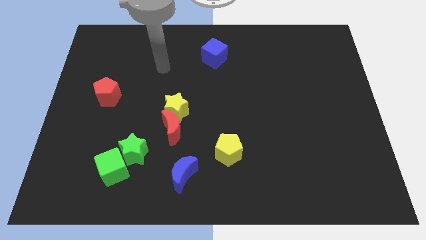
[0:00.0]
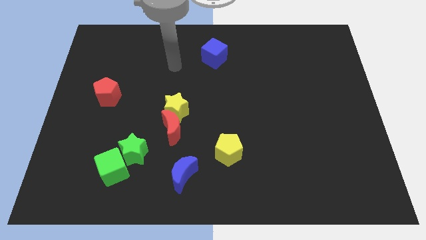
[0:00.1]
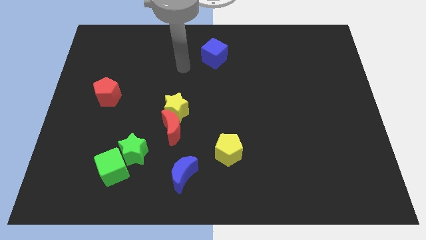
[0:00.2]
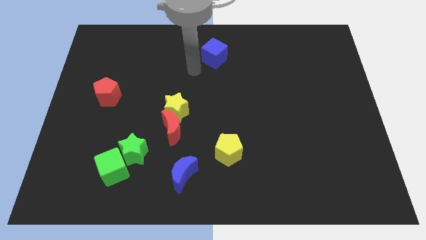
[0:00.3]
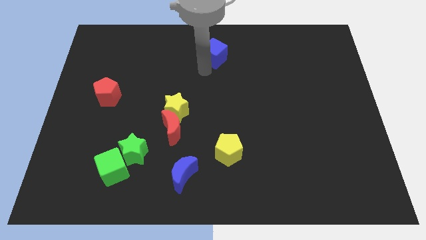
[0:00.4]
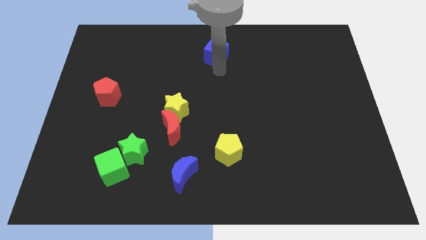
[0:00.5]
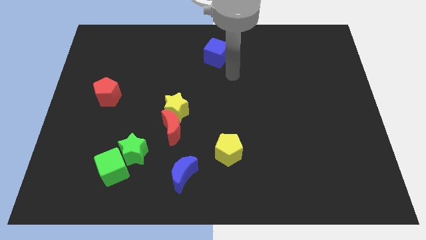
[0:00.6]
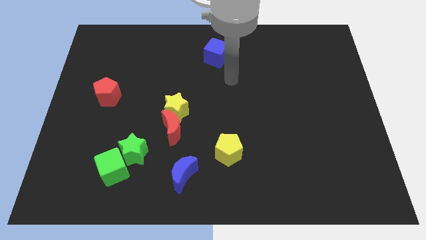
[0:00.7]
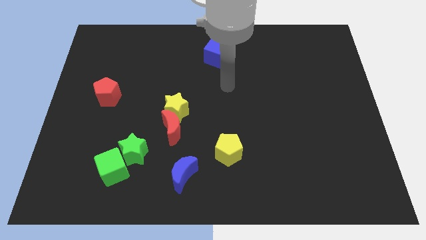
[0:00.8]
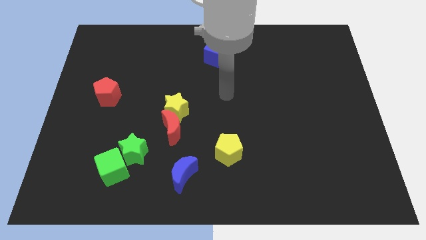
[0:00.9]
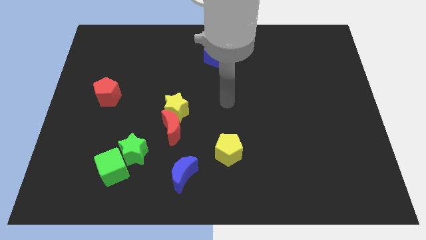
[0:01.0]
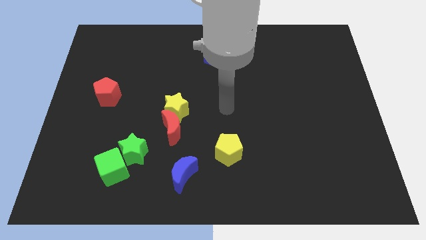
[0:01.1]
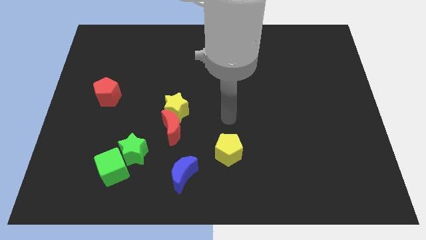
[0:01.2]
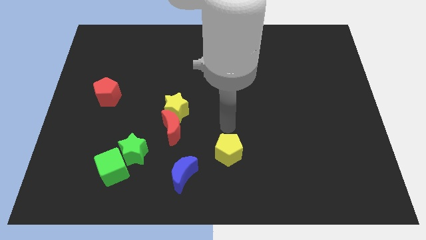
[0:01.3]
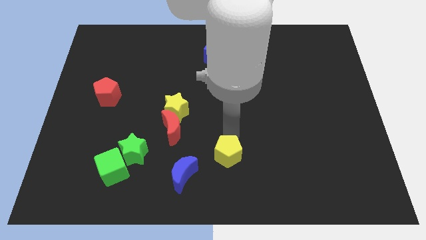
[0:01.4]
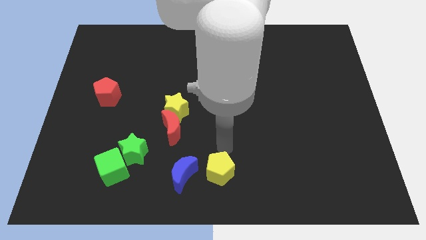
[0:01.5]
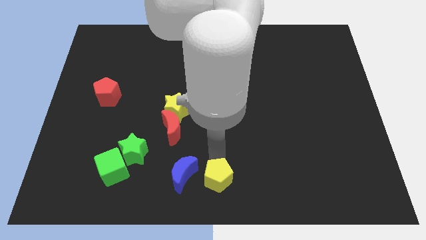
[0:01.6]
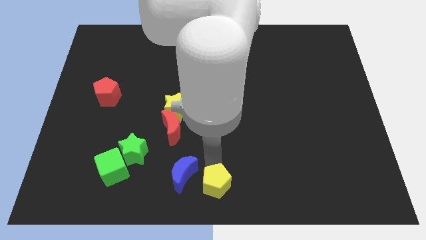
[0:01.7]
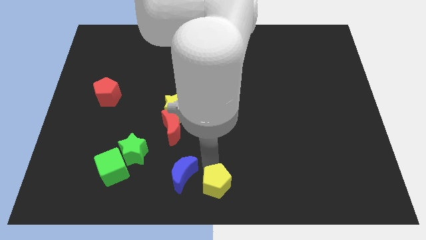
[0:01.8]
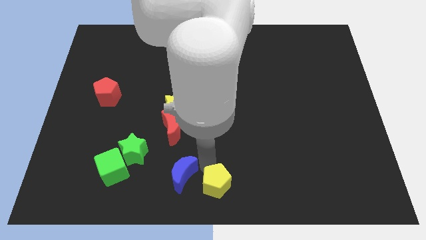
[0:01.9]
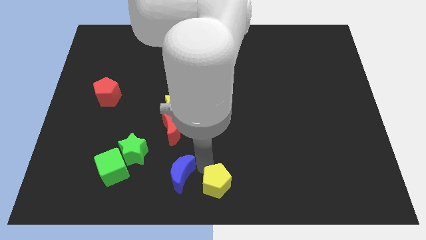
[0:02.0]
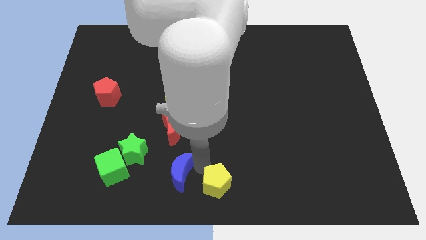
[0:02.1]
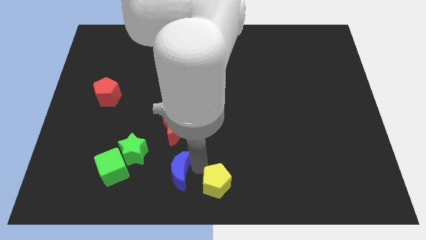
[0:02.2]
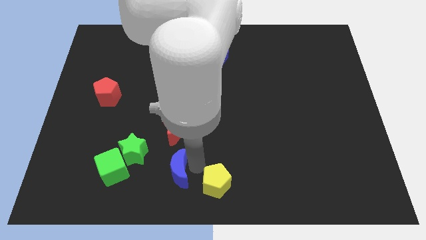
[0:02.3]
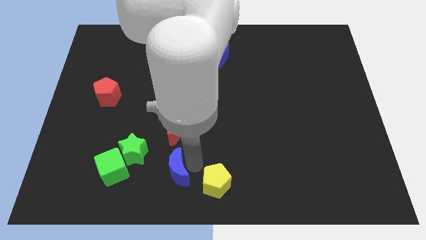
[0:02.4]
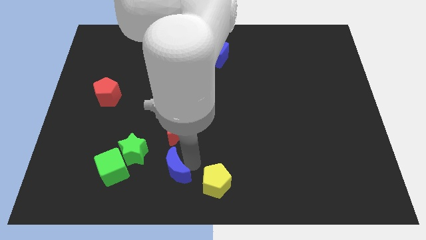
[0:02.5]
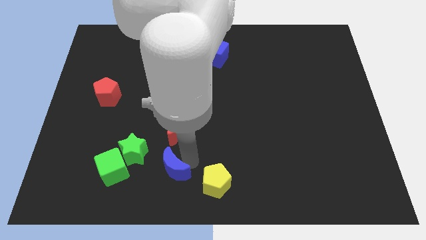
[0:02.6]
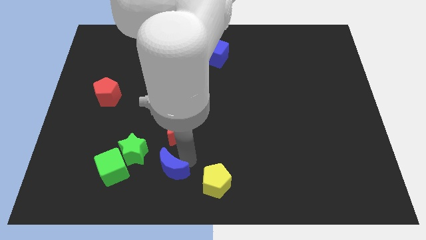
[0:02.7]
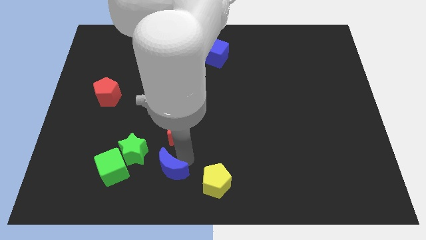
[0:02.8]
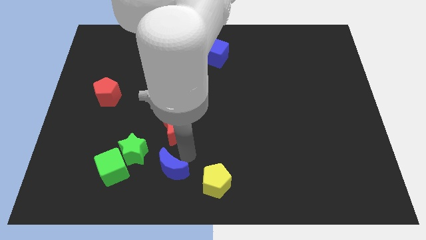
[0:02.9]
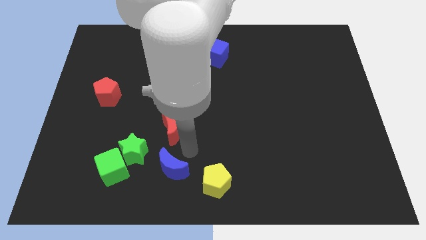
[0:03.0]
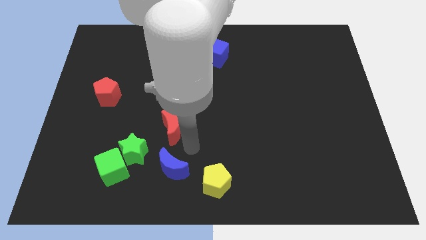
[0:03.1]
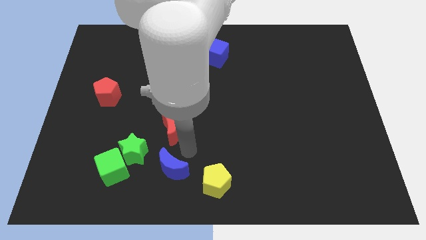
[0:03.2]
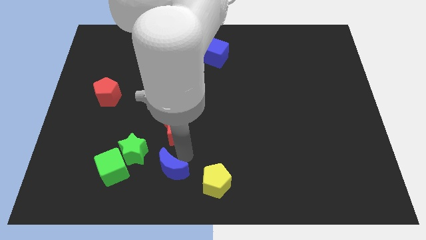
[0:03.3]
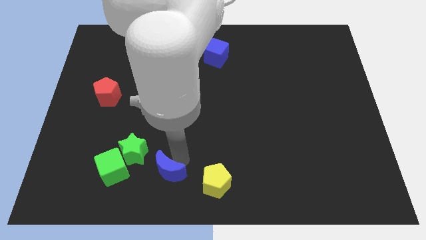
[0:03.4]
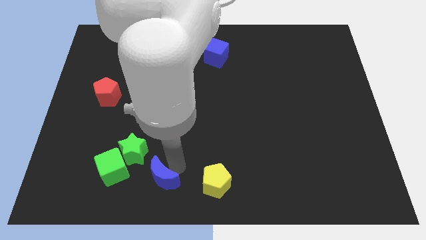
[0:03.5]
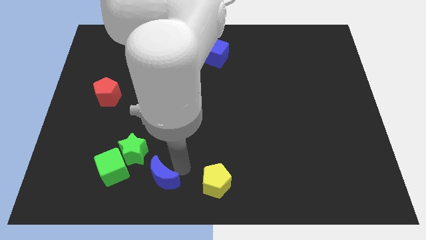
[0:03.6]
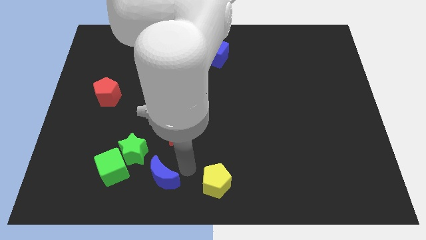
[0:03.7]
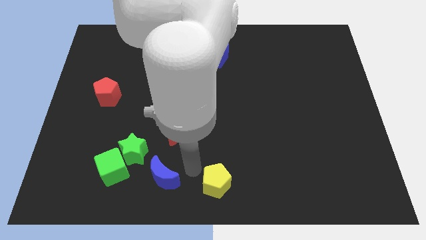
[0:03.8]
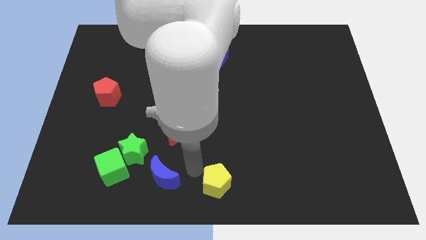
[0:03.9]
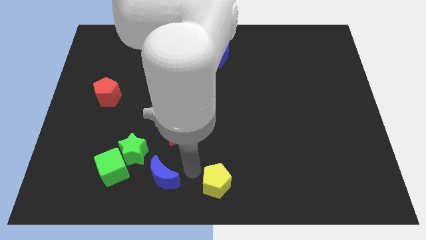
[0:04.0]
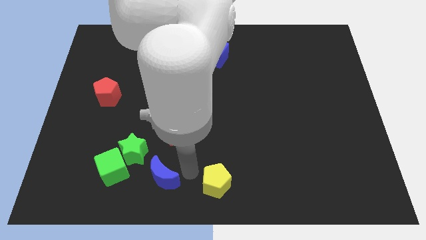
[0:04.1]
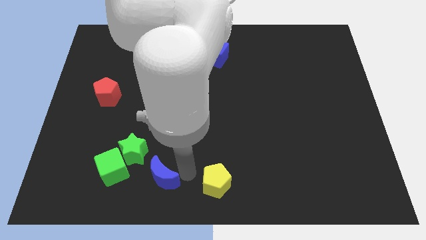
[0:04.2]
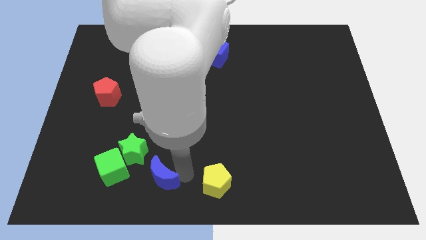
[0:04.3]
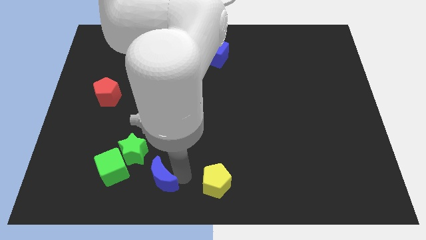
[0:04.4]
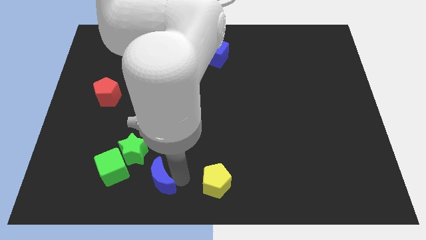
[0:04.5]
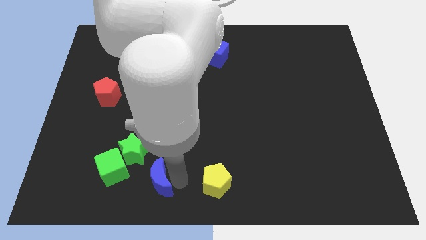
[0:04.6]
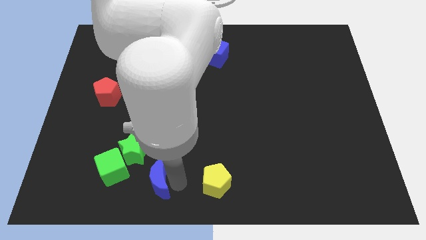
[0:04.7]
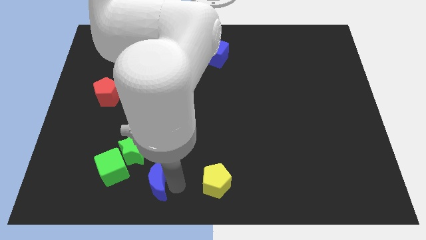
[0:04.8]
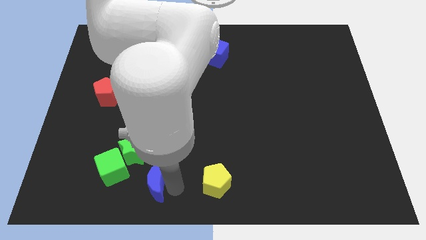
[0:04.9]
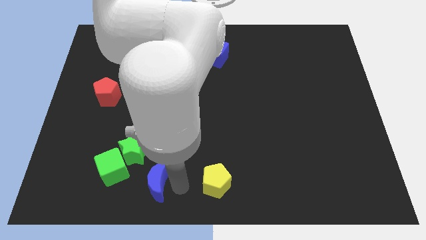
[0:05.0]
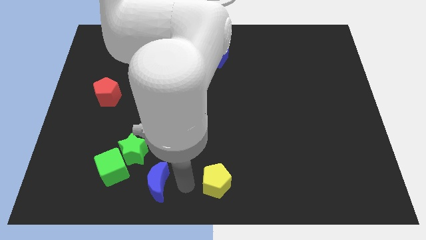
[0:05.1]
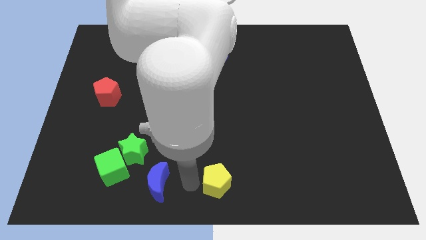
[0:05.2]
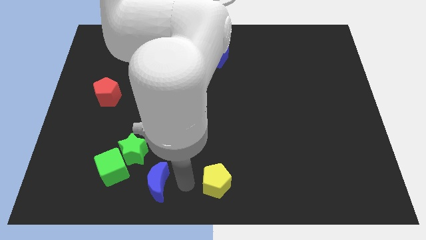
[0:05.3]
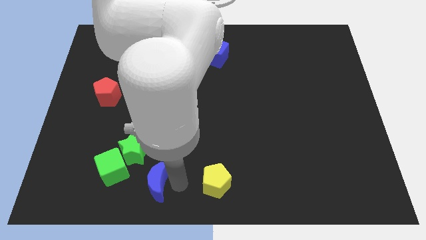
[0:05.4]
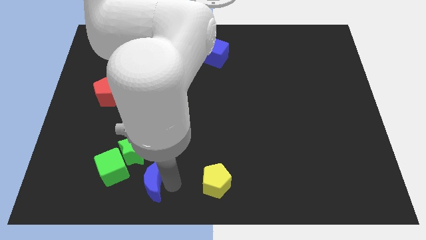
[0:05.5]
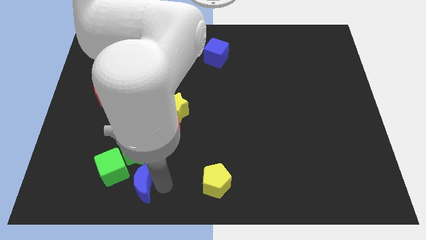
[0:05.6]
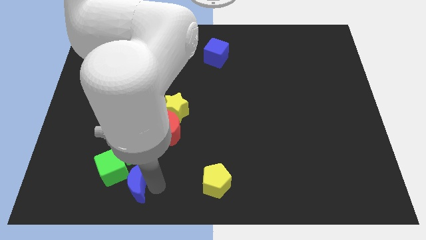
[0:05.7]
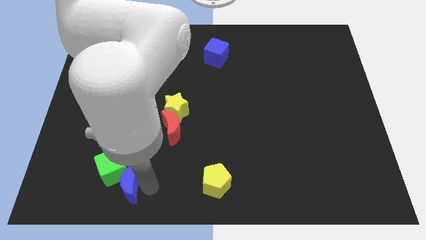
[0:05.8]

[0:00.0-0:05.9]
move the blue moon next to the green cube

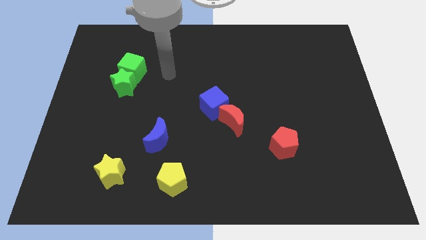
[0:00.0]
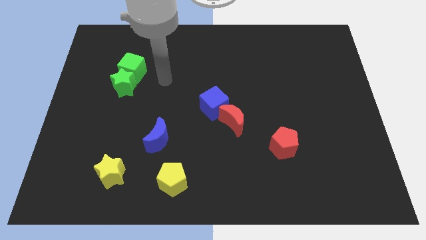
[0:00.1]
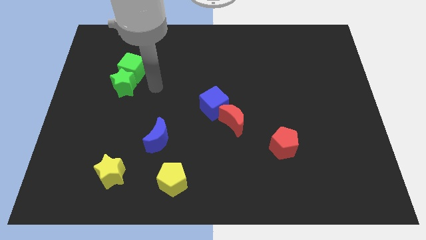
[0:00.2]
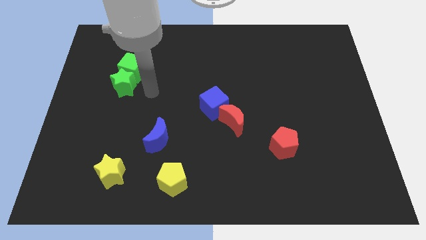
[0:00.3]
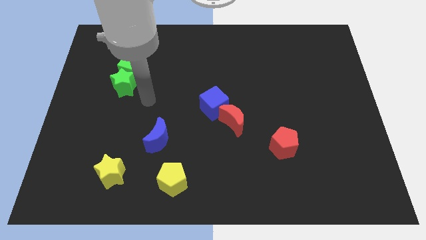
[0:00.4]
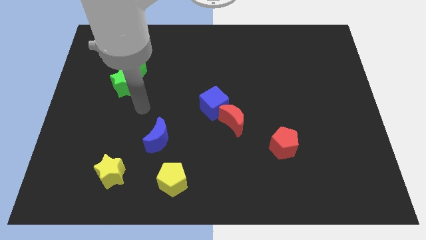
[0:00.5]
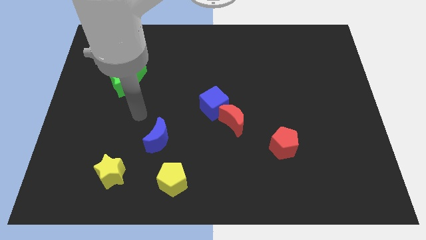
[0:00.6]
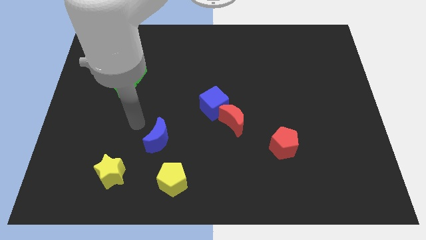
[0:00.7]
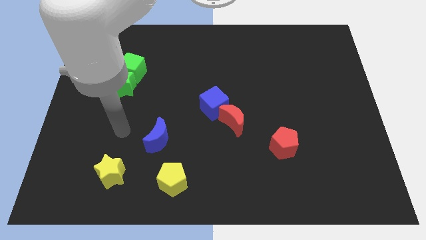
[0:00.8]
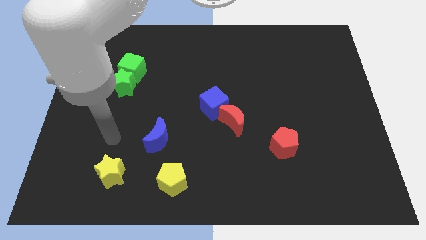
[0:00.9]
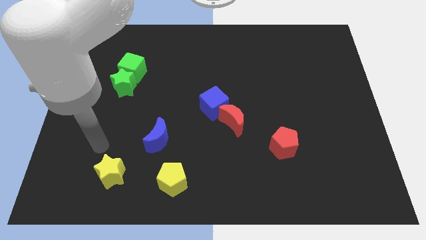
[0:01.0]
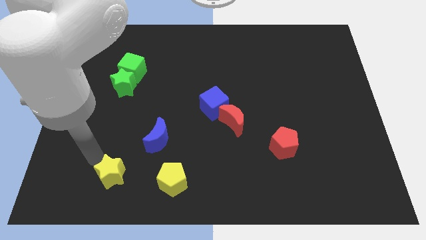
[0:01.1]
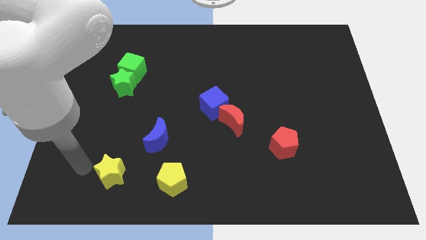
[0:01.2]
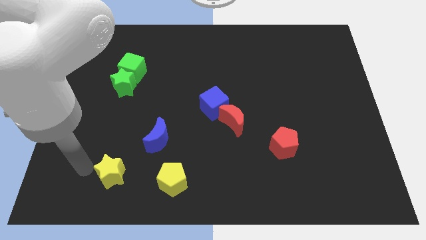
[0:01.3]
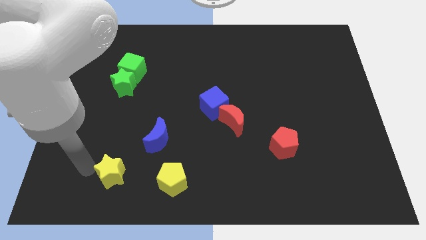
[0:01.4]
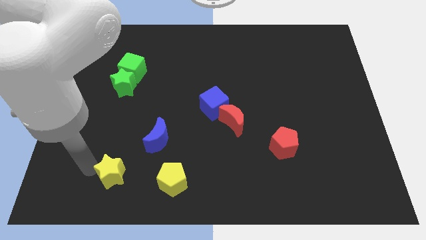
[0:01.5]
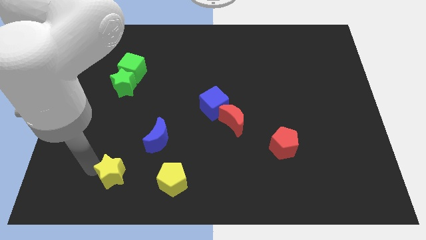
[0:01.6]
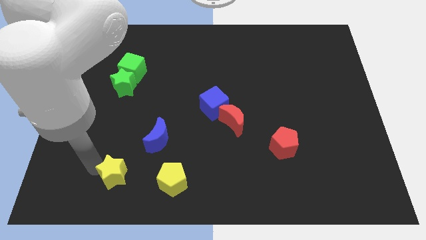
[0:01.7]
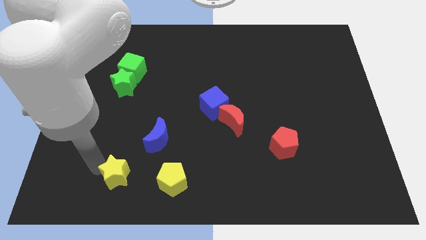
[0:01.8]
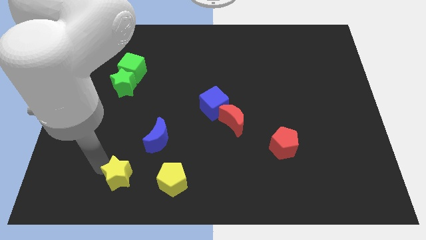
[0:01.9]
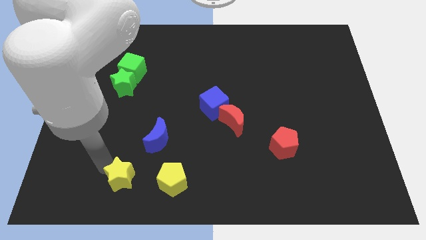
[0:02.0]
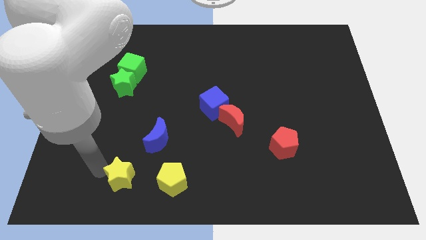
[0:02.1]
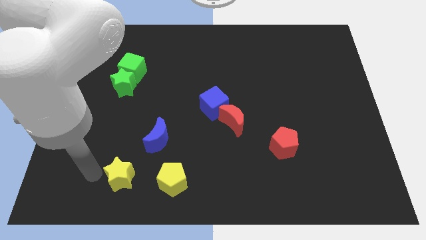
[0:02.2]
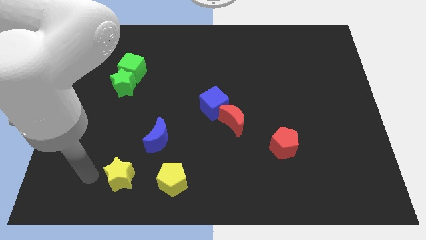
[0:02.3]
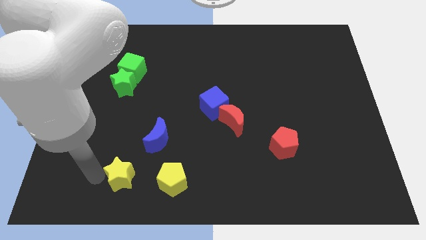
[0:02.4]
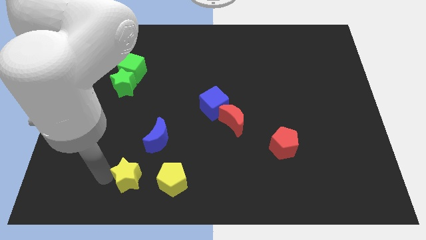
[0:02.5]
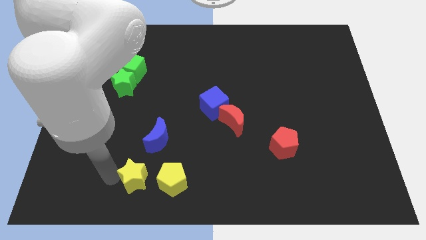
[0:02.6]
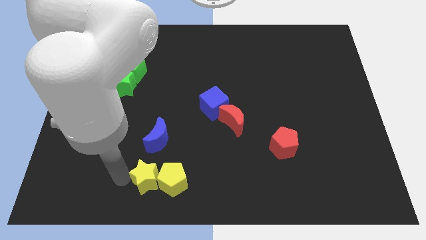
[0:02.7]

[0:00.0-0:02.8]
slide the yellow star next to the yellow pentagon
